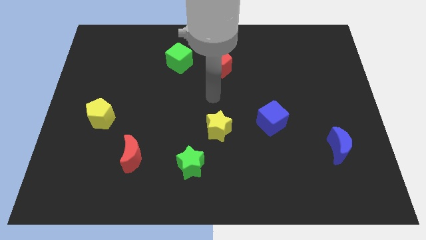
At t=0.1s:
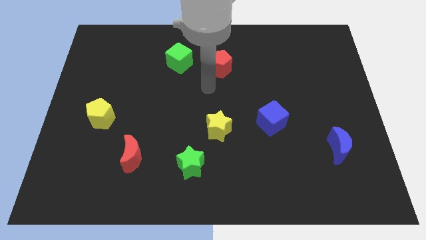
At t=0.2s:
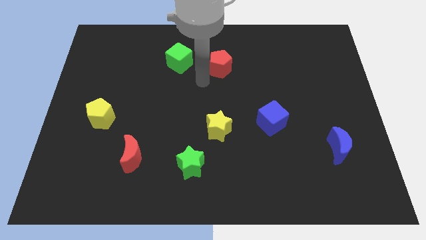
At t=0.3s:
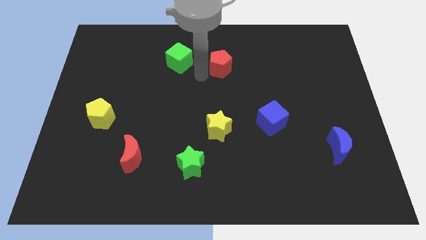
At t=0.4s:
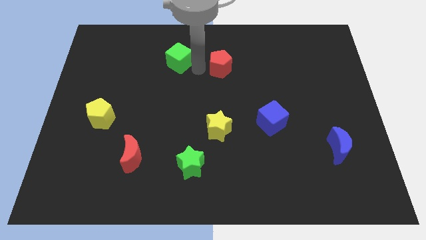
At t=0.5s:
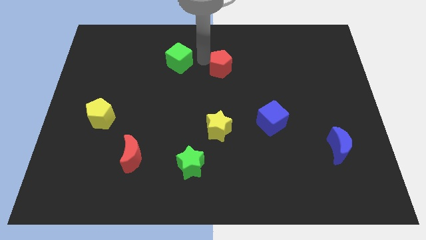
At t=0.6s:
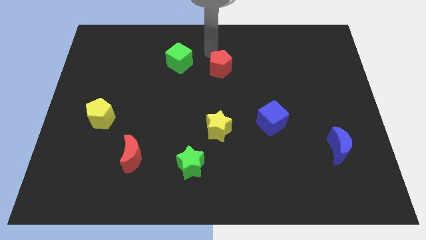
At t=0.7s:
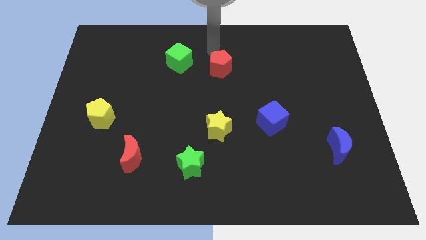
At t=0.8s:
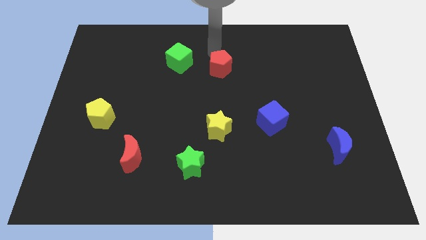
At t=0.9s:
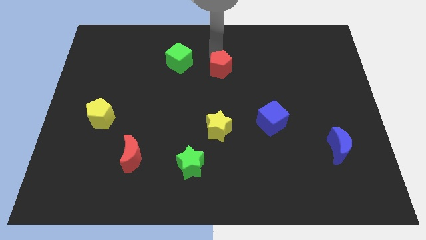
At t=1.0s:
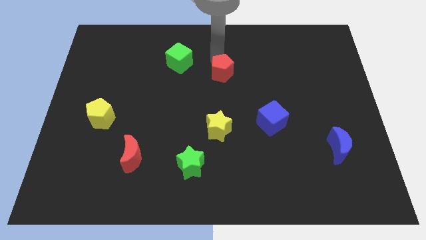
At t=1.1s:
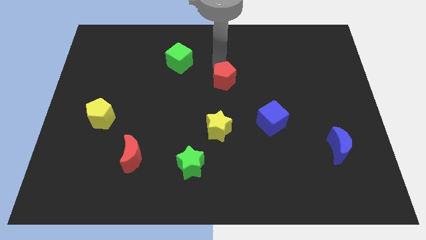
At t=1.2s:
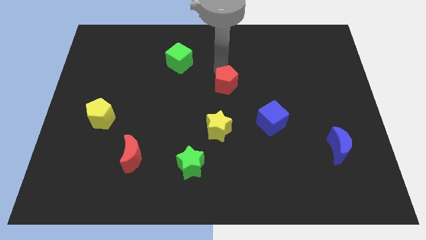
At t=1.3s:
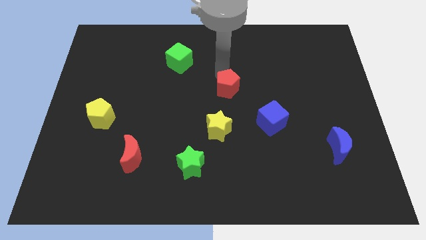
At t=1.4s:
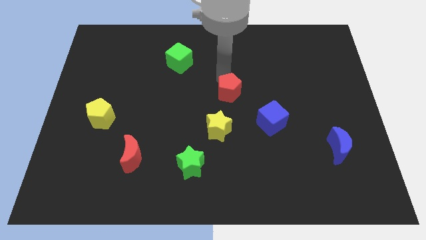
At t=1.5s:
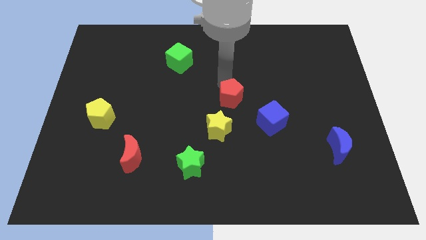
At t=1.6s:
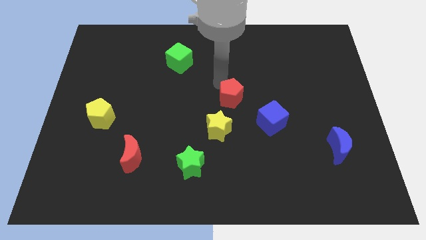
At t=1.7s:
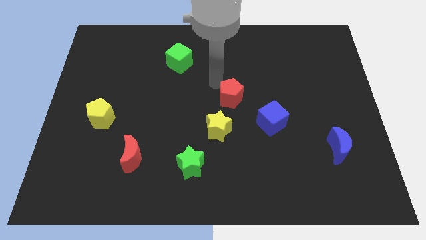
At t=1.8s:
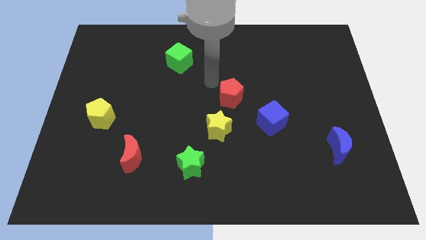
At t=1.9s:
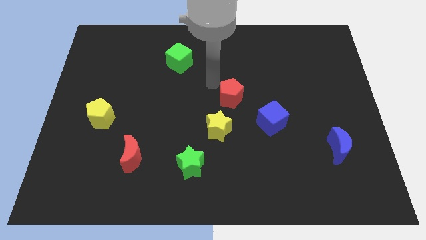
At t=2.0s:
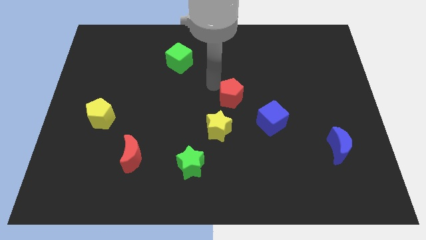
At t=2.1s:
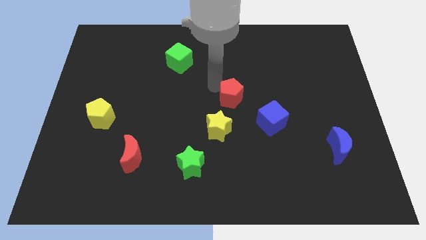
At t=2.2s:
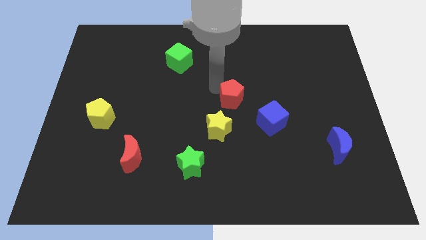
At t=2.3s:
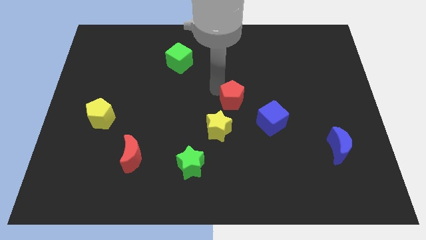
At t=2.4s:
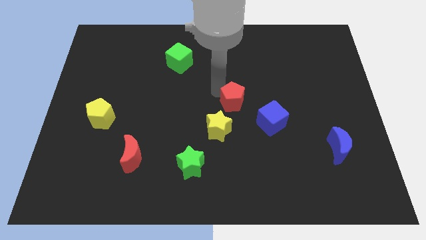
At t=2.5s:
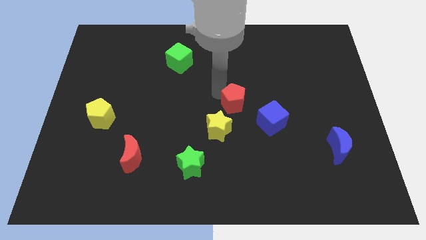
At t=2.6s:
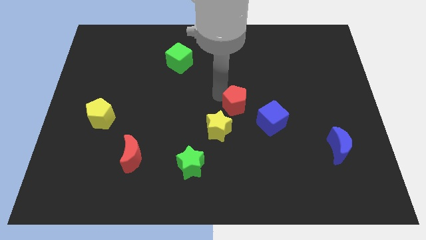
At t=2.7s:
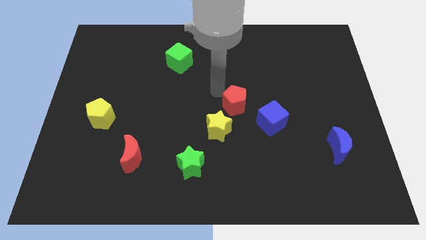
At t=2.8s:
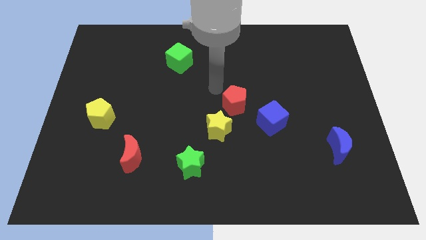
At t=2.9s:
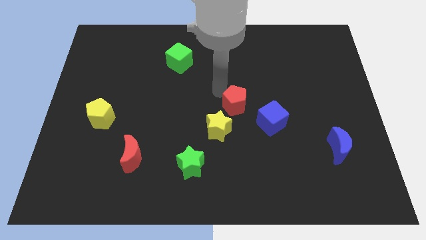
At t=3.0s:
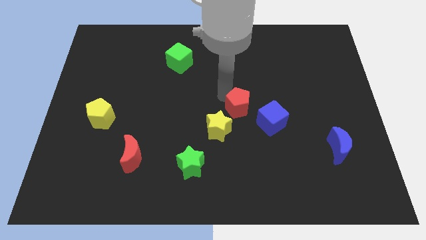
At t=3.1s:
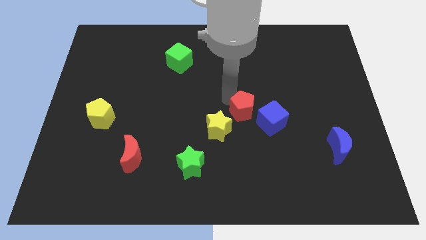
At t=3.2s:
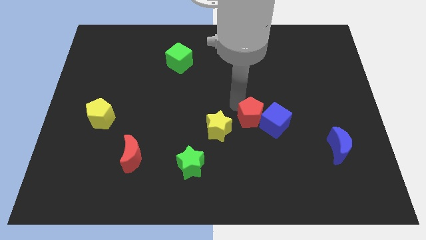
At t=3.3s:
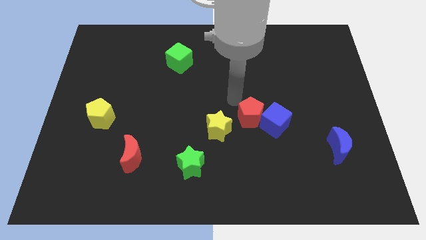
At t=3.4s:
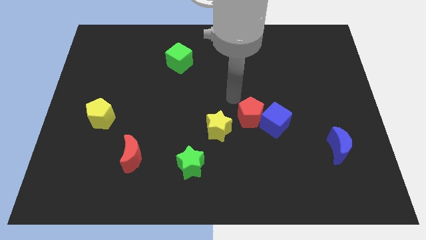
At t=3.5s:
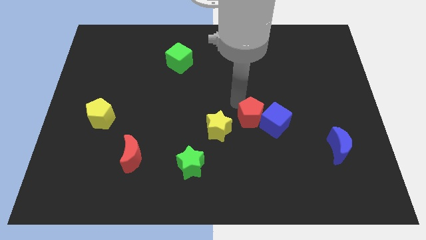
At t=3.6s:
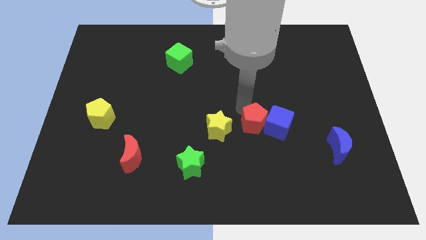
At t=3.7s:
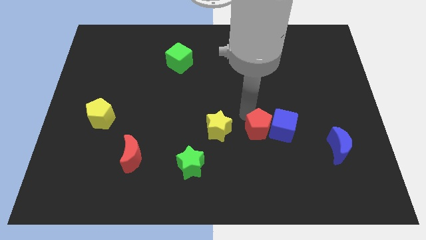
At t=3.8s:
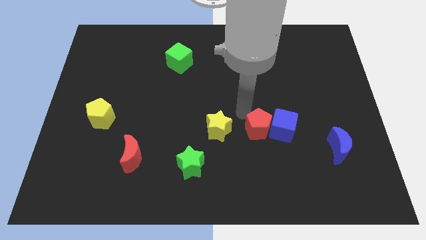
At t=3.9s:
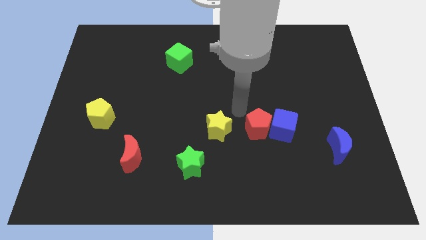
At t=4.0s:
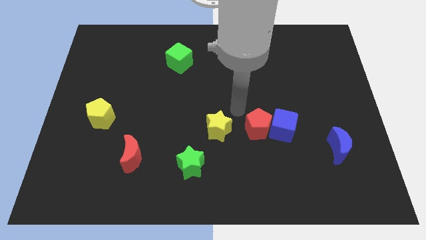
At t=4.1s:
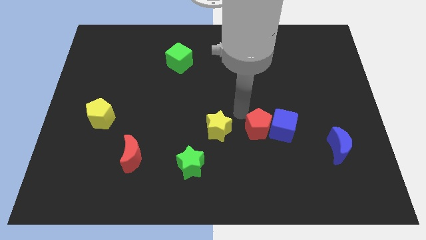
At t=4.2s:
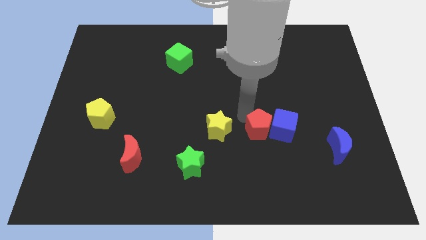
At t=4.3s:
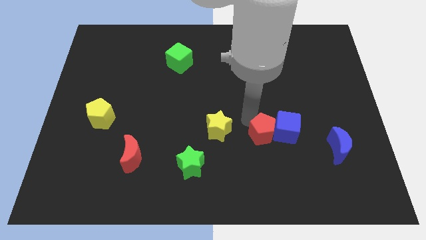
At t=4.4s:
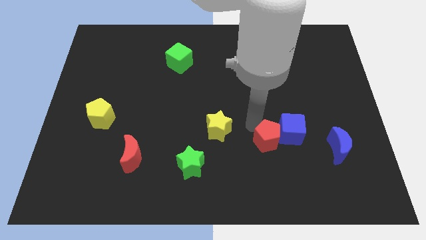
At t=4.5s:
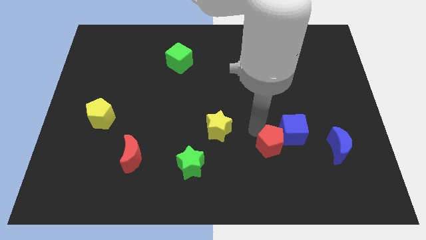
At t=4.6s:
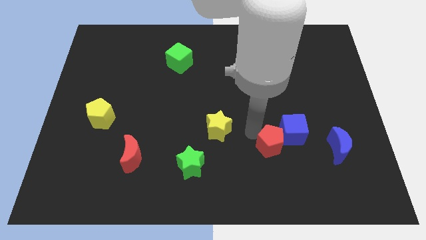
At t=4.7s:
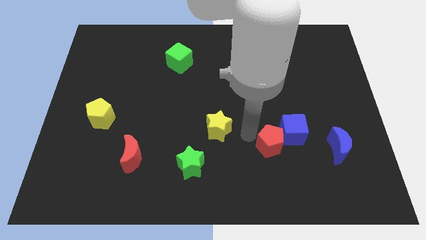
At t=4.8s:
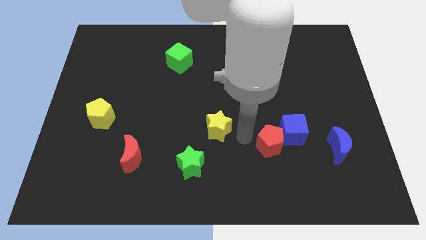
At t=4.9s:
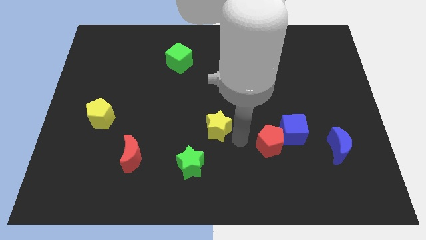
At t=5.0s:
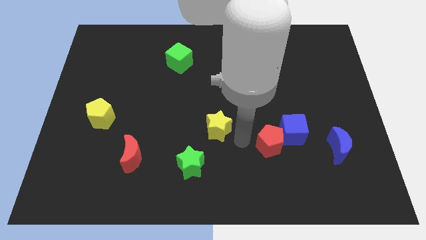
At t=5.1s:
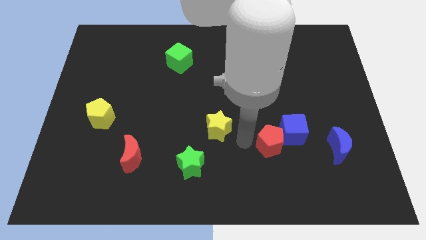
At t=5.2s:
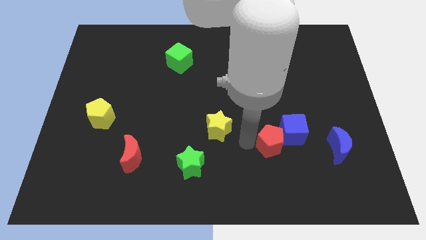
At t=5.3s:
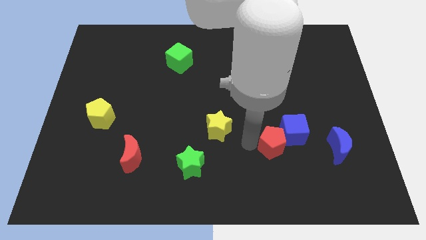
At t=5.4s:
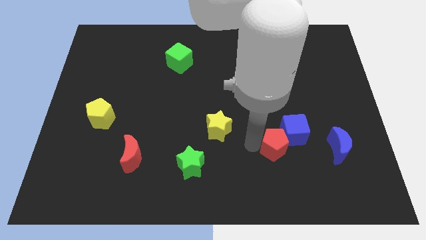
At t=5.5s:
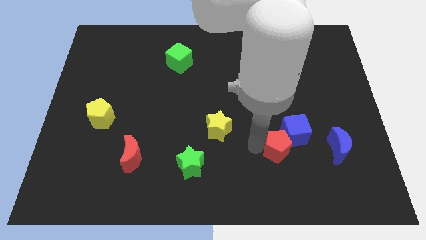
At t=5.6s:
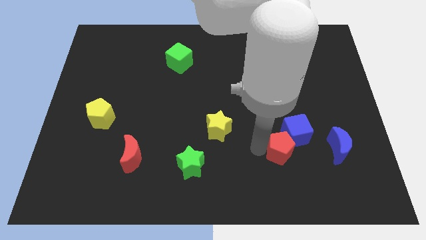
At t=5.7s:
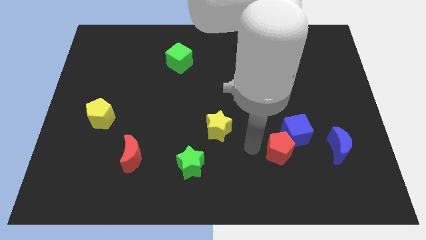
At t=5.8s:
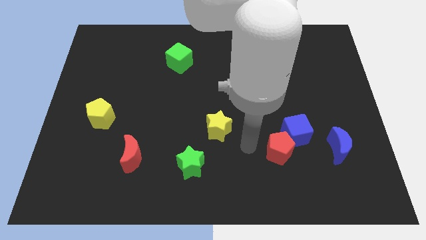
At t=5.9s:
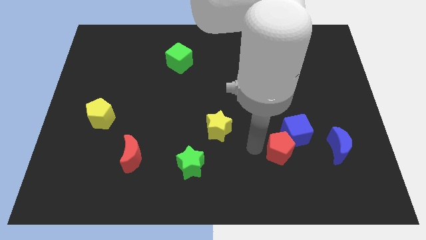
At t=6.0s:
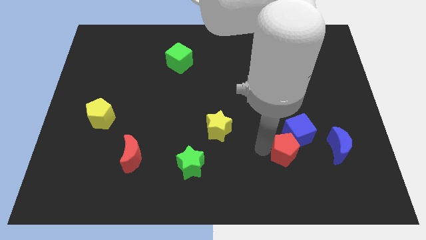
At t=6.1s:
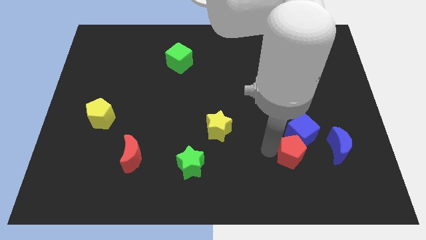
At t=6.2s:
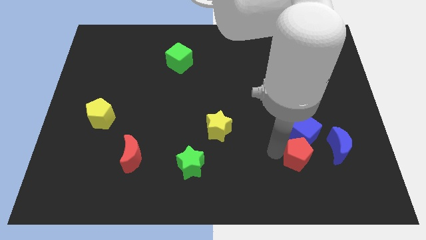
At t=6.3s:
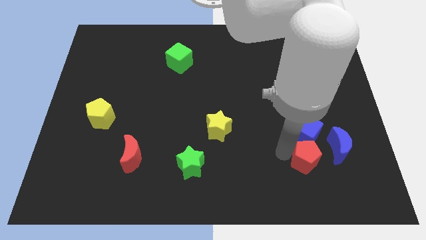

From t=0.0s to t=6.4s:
push the red pentagon diagonally down and to the left of the blue moon

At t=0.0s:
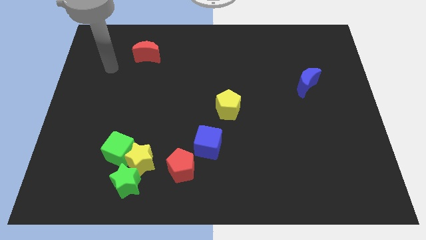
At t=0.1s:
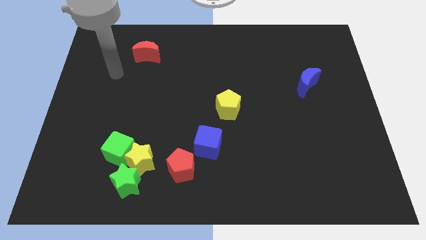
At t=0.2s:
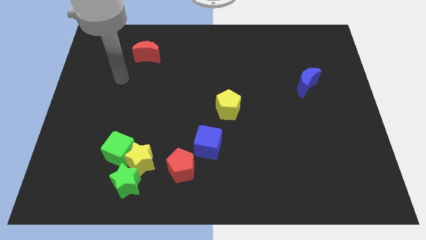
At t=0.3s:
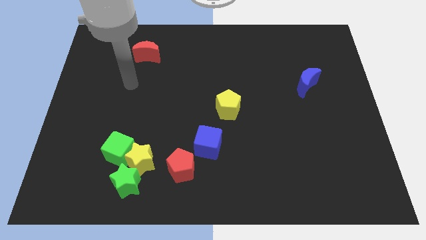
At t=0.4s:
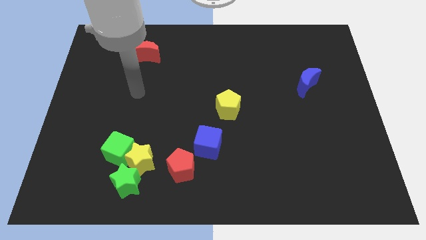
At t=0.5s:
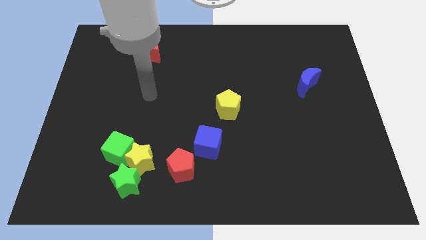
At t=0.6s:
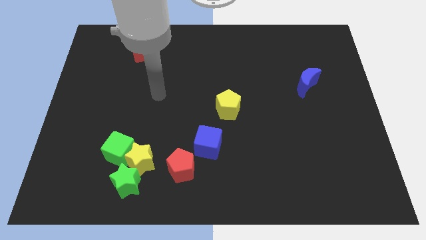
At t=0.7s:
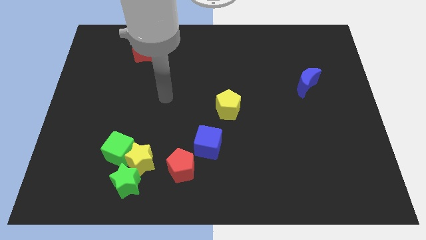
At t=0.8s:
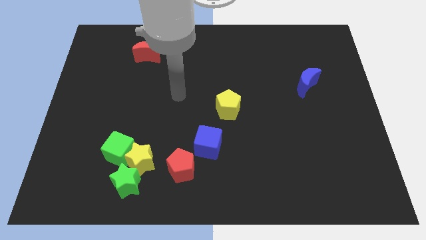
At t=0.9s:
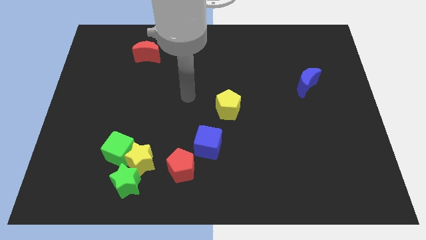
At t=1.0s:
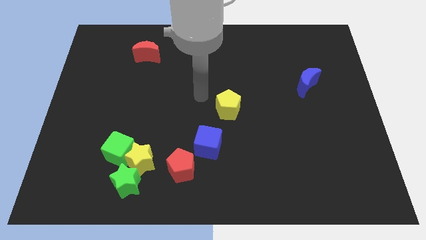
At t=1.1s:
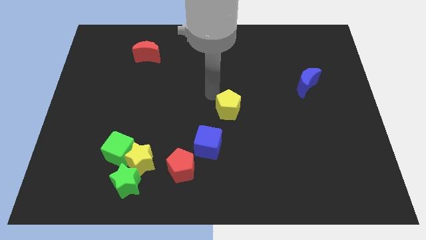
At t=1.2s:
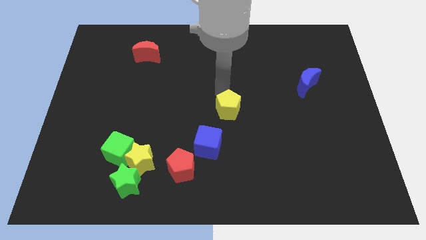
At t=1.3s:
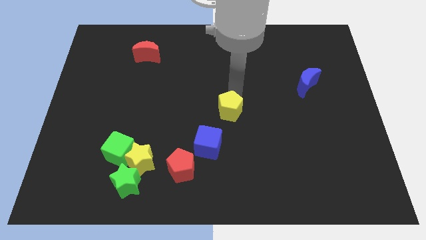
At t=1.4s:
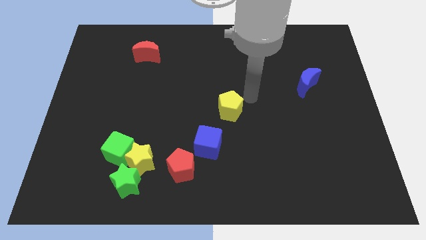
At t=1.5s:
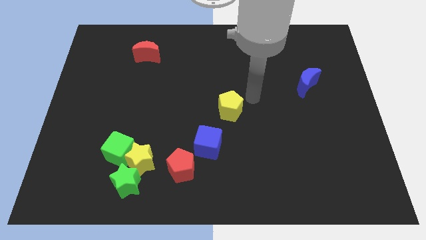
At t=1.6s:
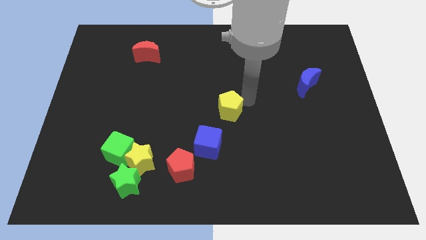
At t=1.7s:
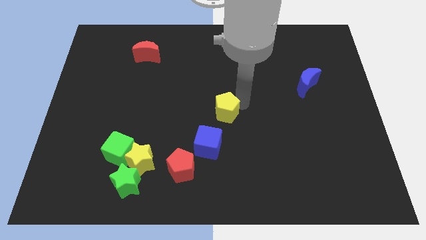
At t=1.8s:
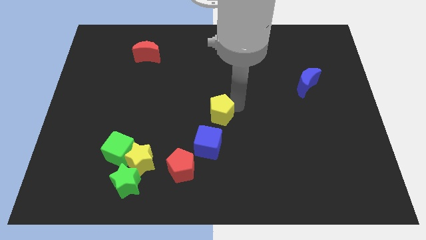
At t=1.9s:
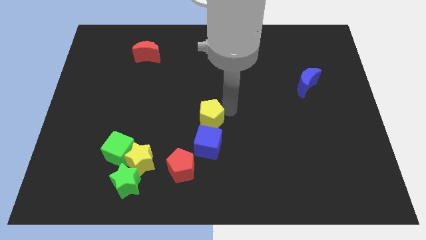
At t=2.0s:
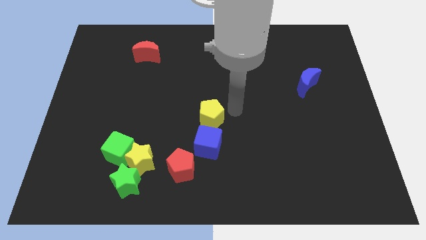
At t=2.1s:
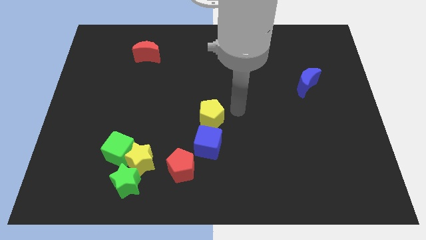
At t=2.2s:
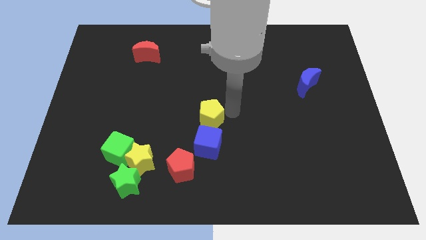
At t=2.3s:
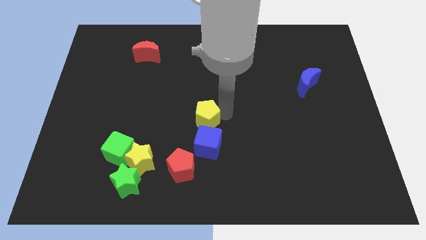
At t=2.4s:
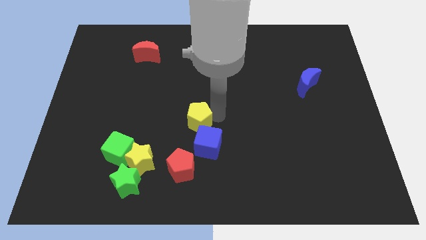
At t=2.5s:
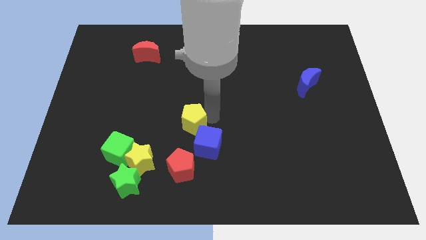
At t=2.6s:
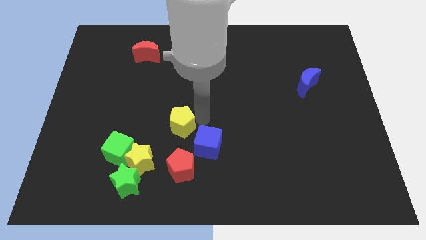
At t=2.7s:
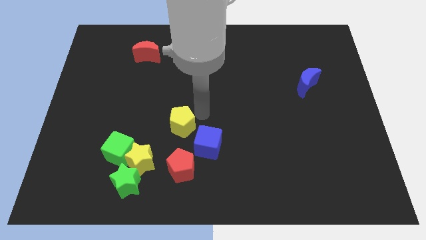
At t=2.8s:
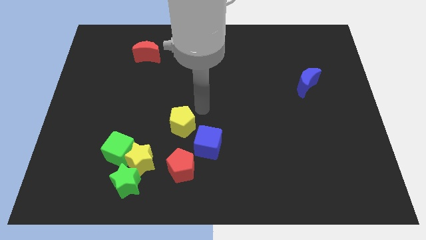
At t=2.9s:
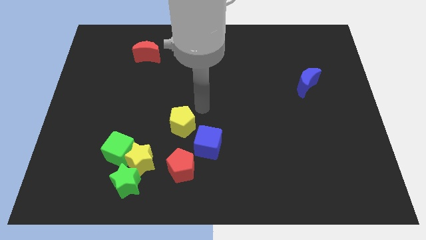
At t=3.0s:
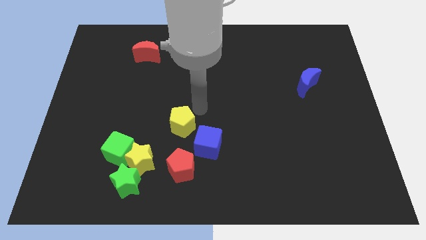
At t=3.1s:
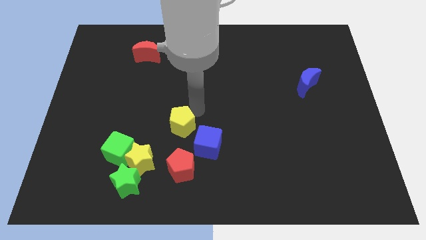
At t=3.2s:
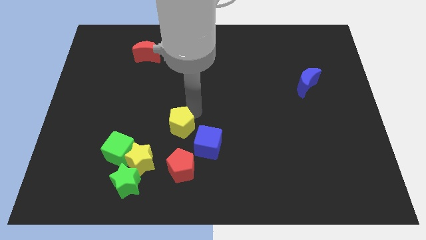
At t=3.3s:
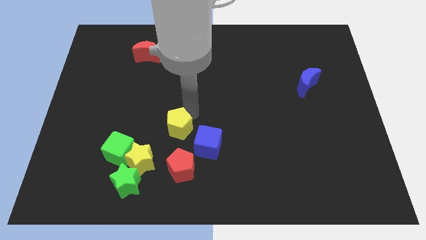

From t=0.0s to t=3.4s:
push the yellow pentagon just left of the blue cube
